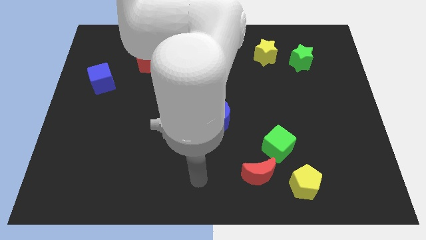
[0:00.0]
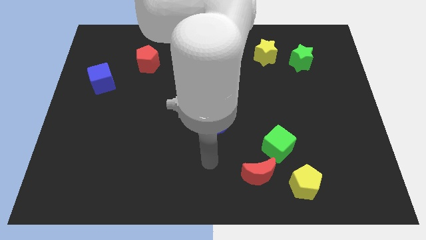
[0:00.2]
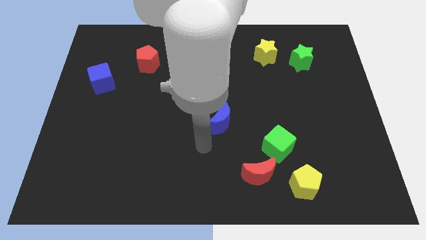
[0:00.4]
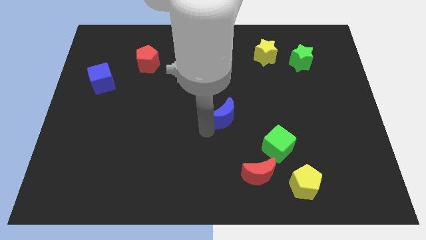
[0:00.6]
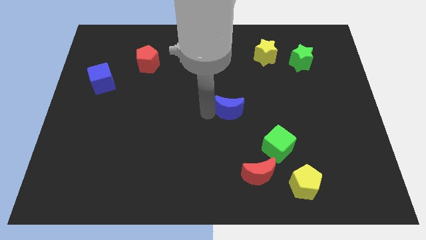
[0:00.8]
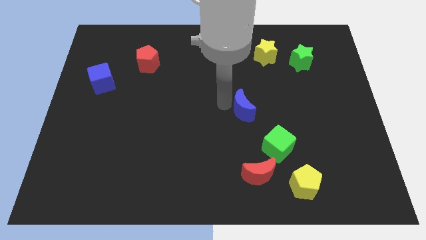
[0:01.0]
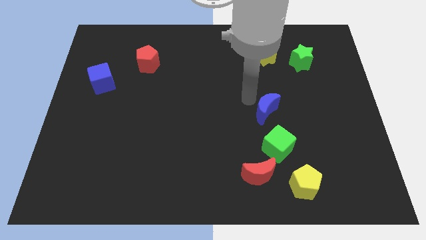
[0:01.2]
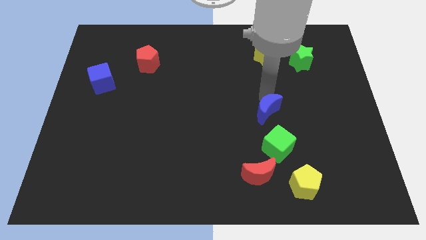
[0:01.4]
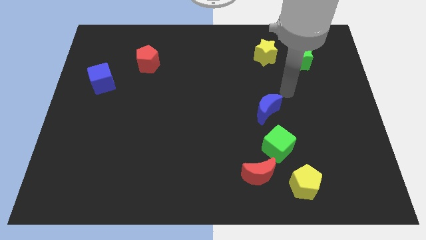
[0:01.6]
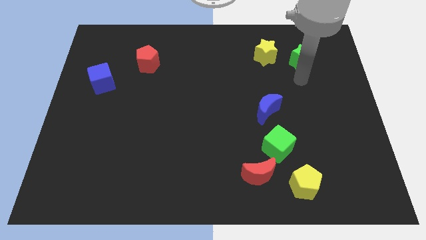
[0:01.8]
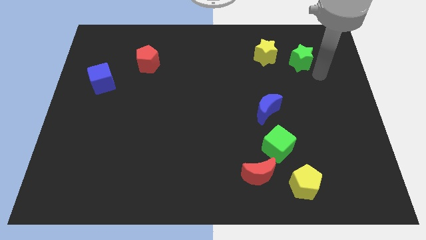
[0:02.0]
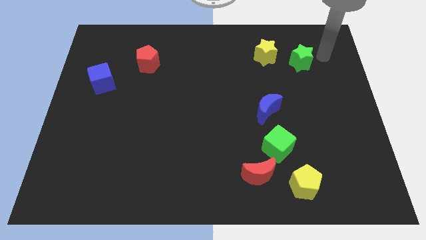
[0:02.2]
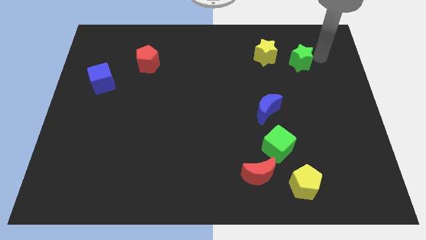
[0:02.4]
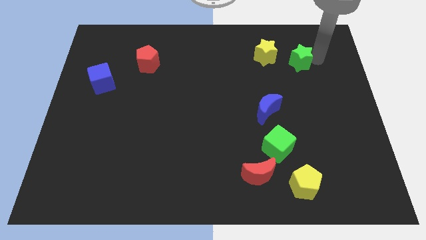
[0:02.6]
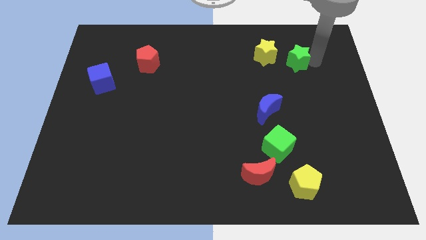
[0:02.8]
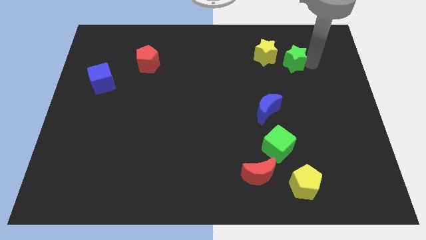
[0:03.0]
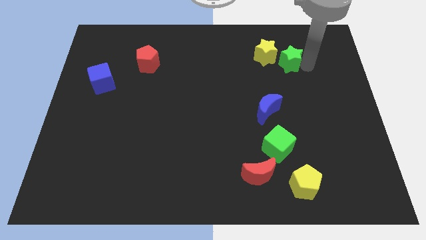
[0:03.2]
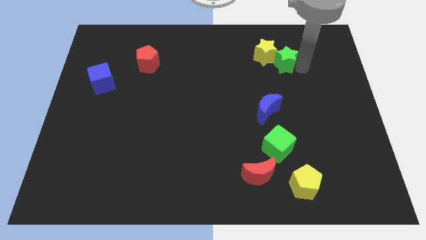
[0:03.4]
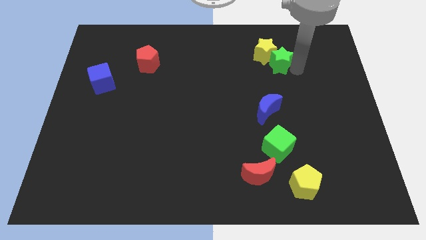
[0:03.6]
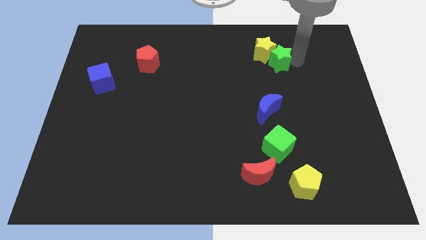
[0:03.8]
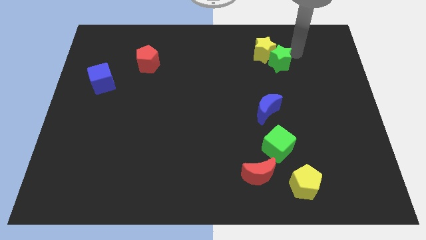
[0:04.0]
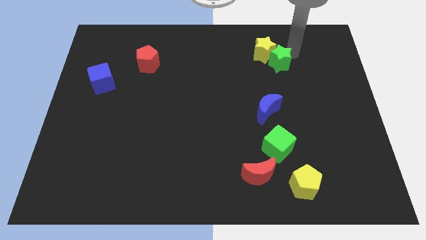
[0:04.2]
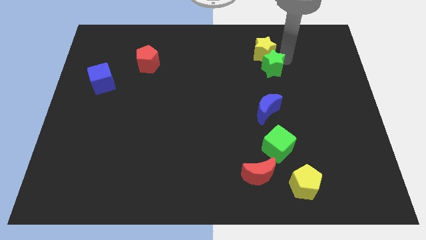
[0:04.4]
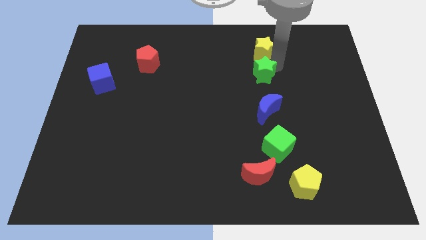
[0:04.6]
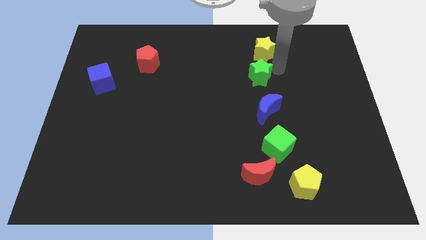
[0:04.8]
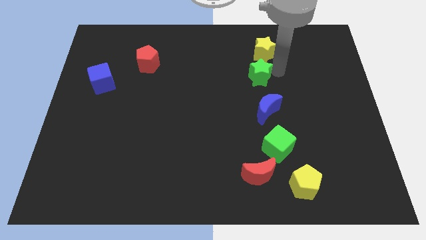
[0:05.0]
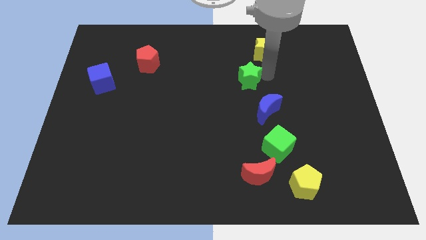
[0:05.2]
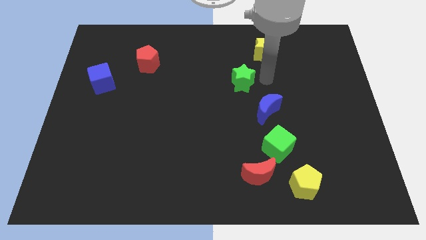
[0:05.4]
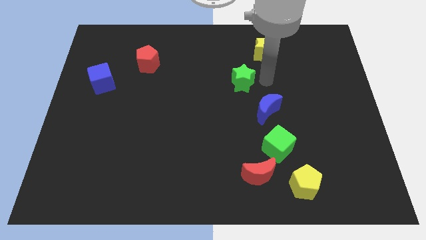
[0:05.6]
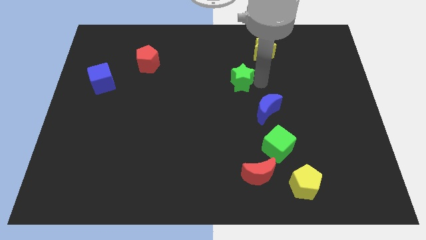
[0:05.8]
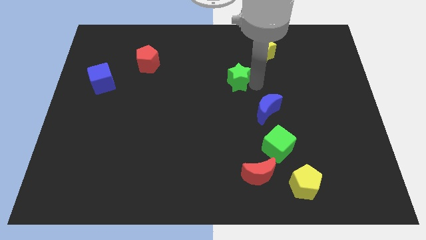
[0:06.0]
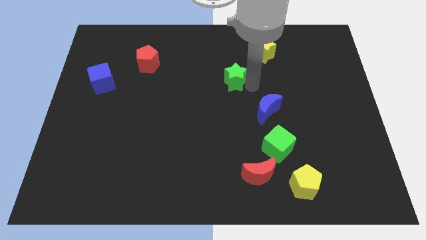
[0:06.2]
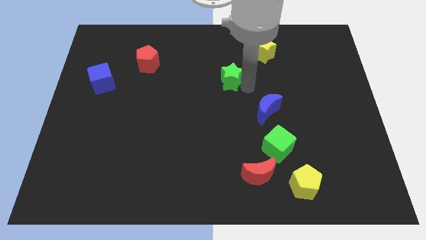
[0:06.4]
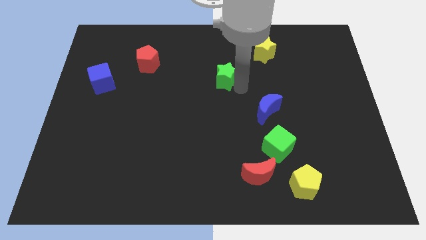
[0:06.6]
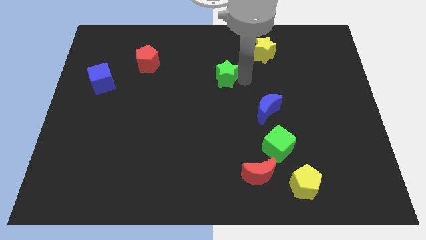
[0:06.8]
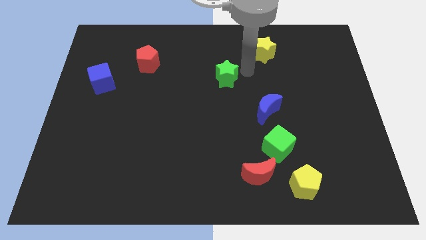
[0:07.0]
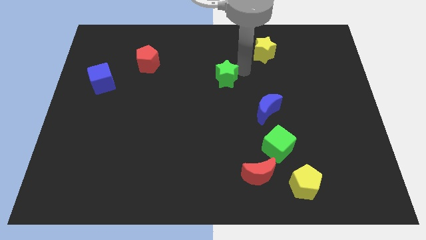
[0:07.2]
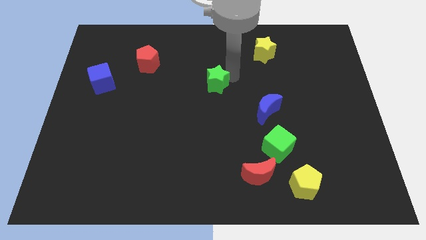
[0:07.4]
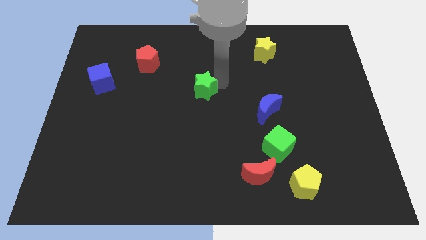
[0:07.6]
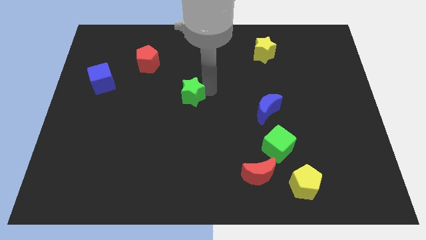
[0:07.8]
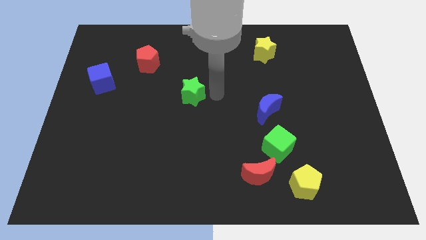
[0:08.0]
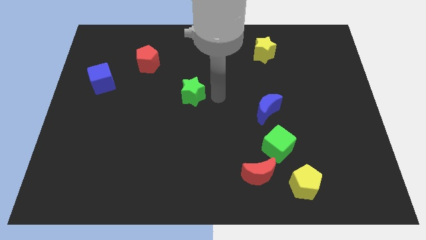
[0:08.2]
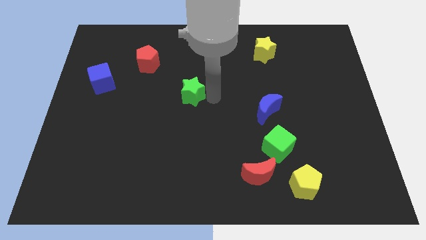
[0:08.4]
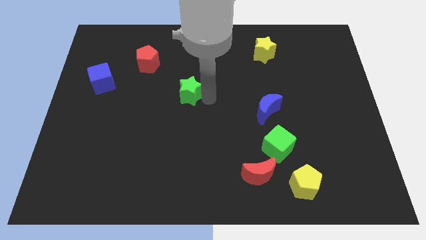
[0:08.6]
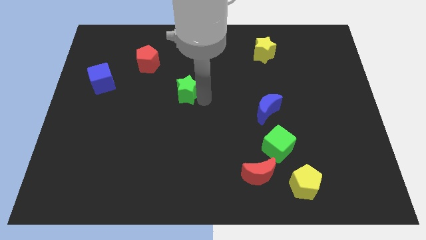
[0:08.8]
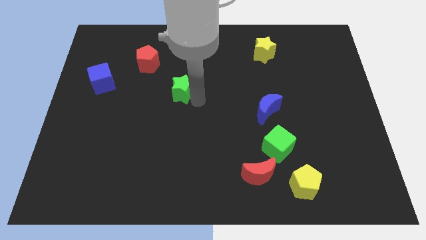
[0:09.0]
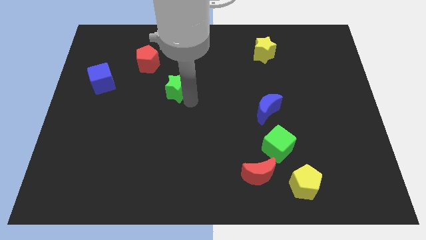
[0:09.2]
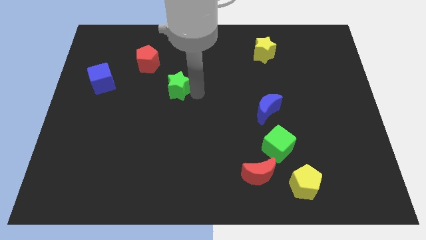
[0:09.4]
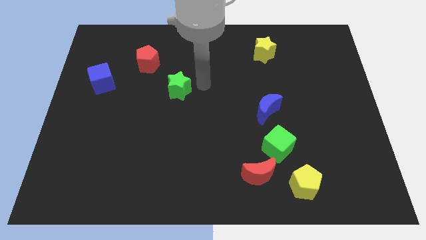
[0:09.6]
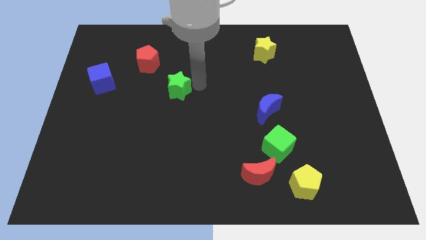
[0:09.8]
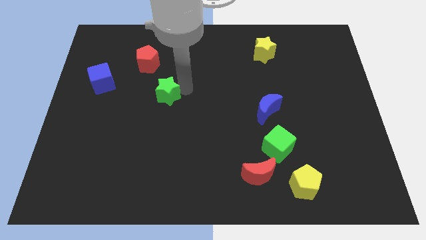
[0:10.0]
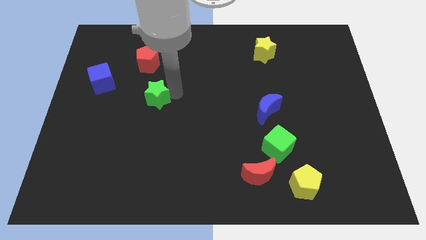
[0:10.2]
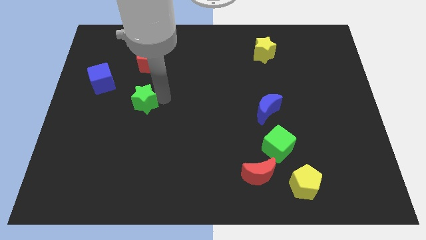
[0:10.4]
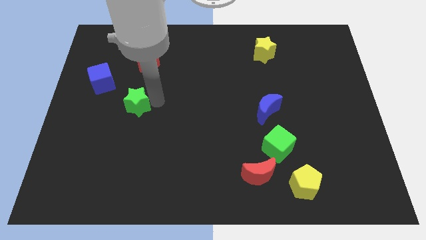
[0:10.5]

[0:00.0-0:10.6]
put the green star to the bottom right side of the blue cube

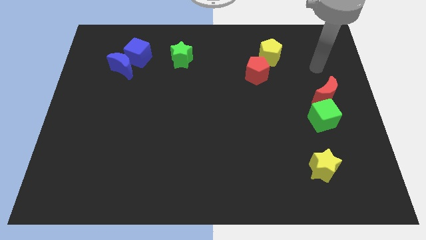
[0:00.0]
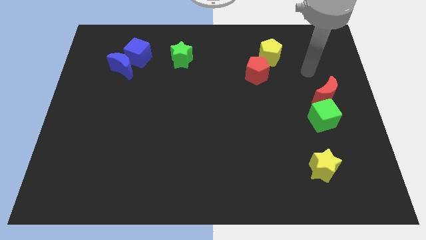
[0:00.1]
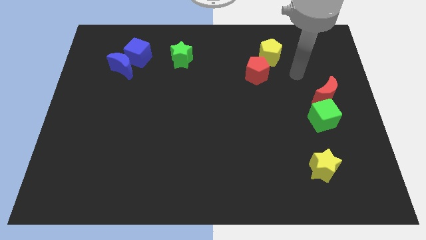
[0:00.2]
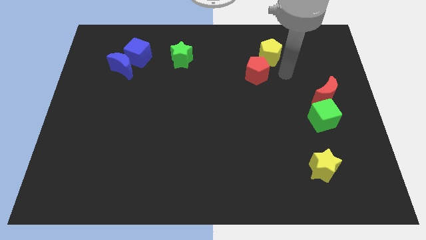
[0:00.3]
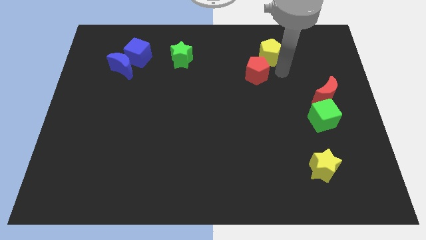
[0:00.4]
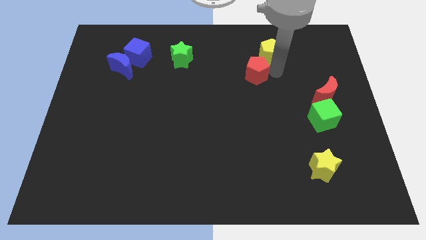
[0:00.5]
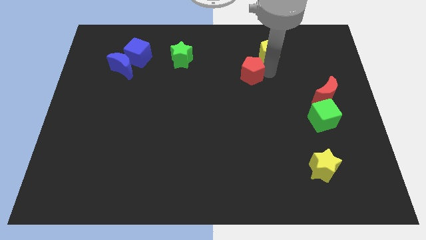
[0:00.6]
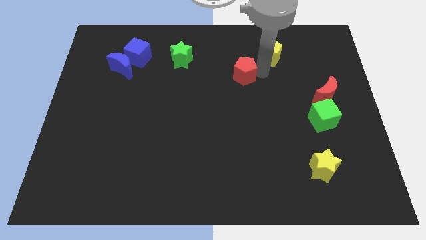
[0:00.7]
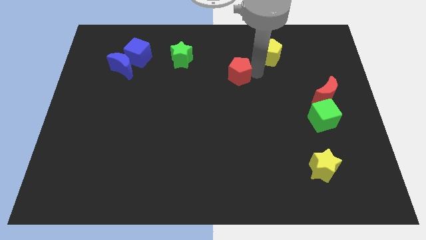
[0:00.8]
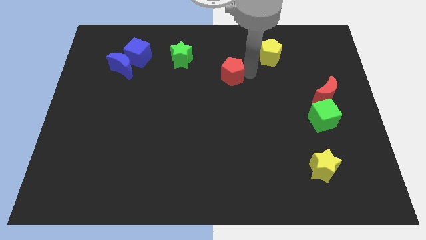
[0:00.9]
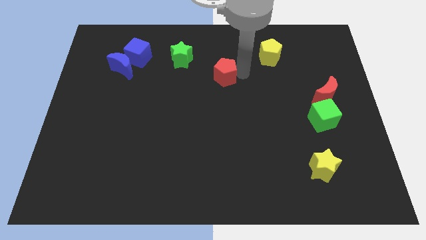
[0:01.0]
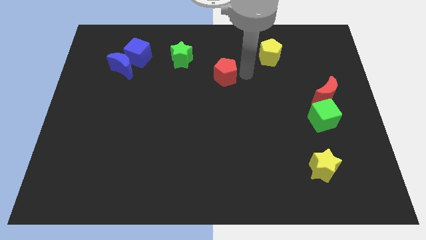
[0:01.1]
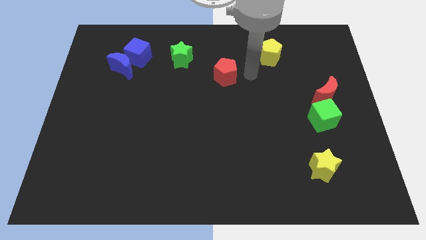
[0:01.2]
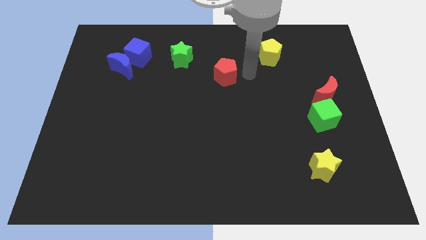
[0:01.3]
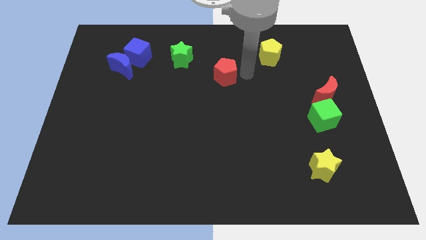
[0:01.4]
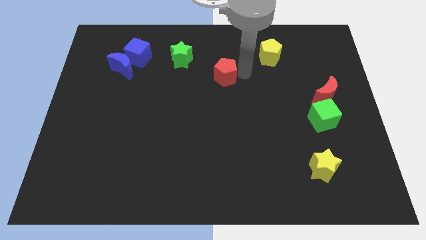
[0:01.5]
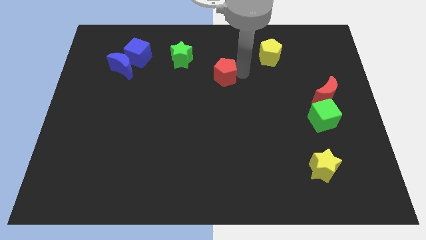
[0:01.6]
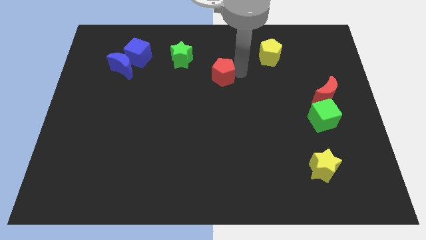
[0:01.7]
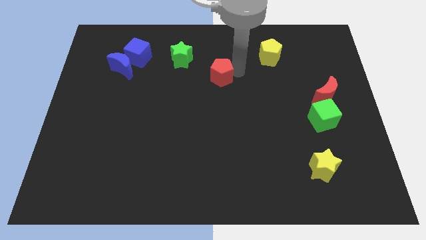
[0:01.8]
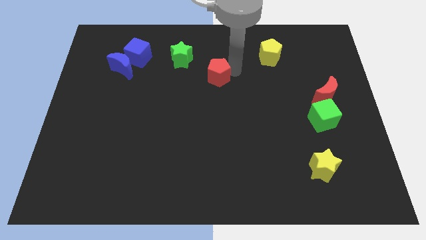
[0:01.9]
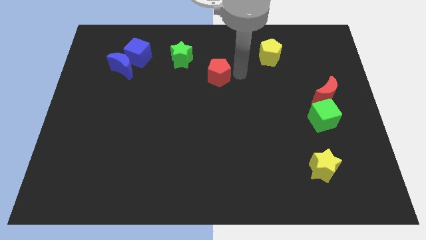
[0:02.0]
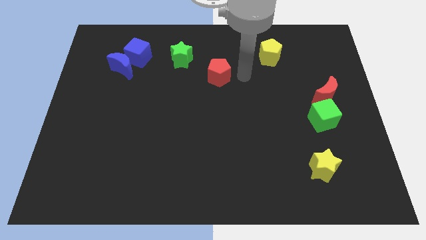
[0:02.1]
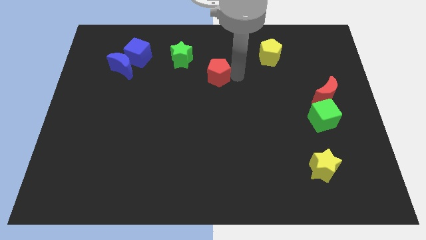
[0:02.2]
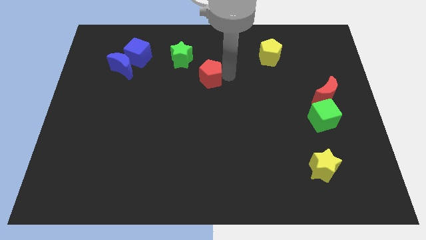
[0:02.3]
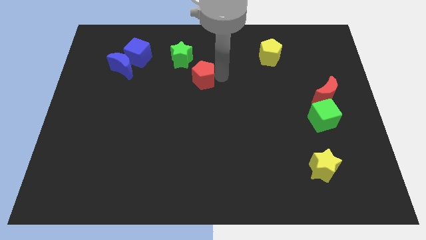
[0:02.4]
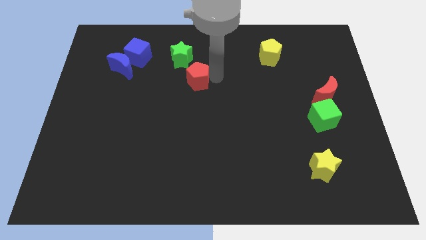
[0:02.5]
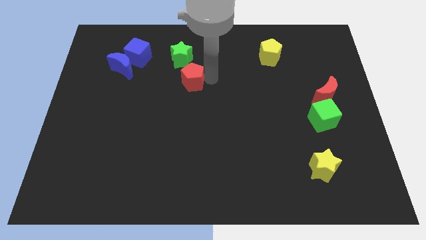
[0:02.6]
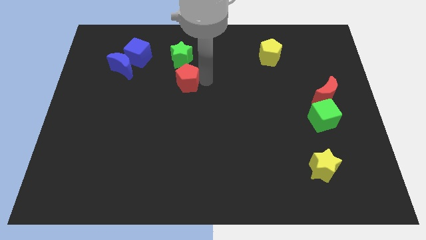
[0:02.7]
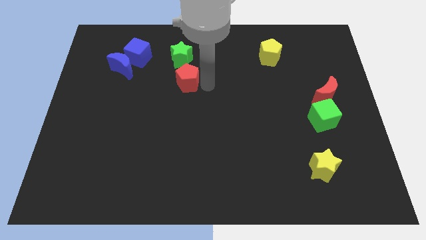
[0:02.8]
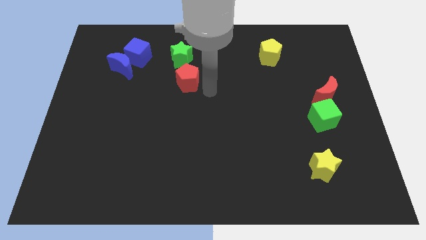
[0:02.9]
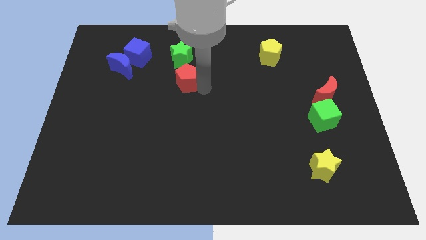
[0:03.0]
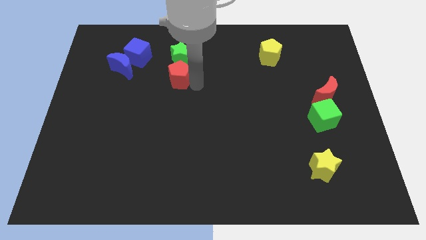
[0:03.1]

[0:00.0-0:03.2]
push the red pentagon to the right side of the blue moon
